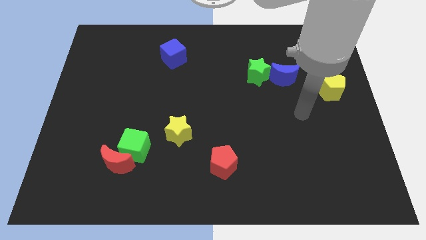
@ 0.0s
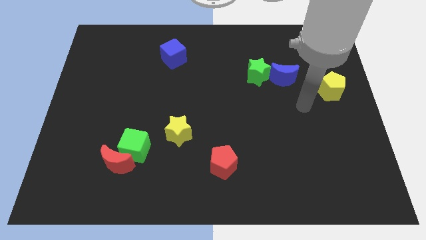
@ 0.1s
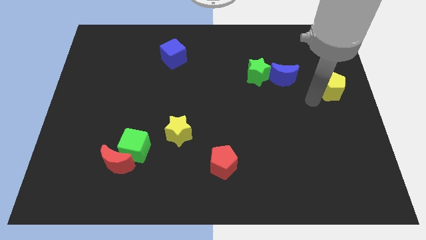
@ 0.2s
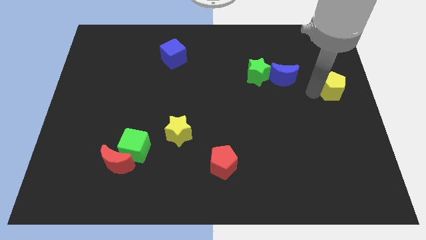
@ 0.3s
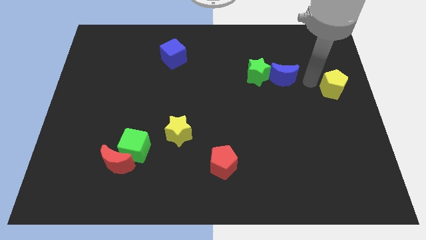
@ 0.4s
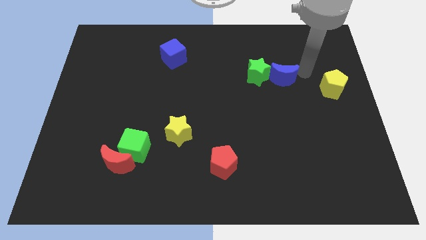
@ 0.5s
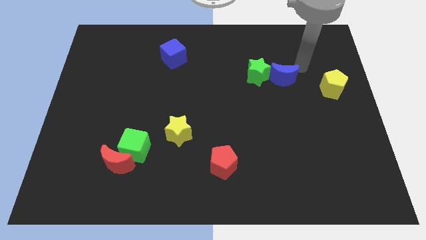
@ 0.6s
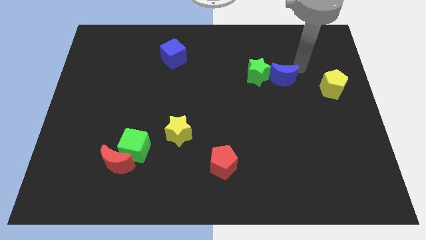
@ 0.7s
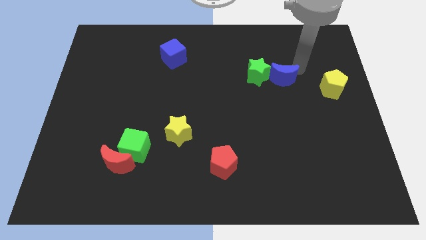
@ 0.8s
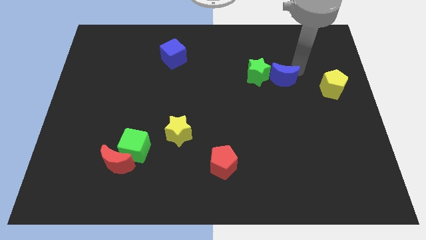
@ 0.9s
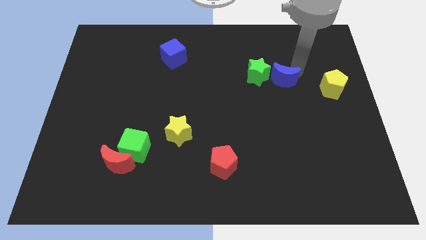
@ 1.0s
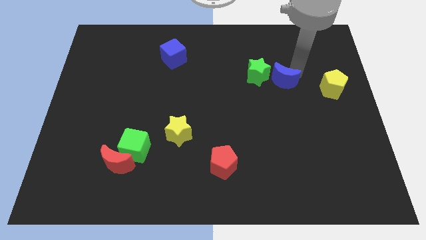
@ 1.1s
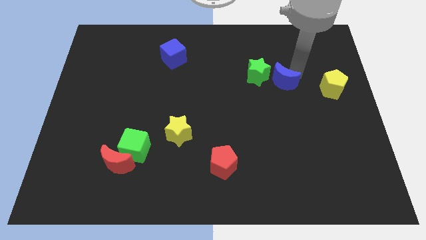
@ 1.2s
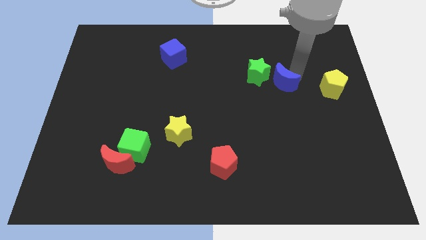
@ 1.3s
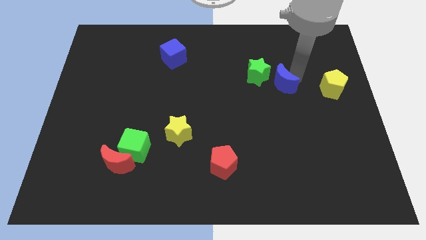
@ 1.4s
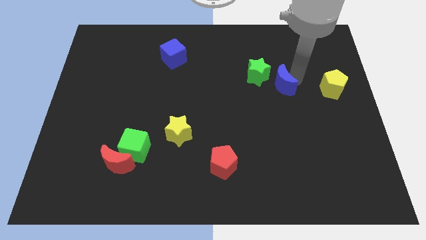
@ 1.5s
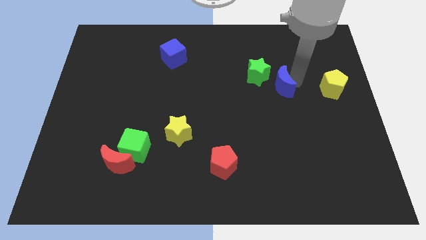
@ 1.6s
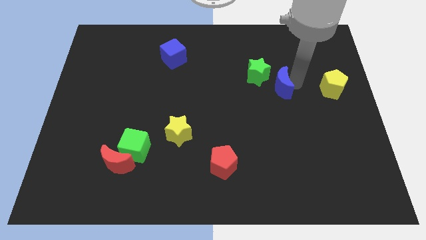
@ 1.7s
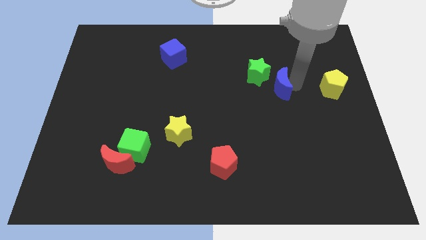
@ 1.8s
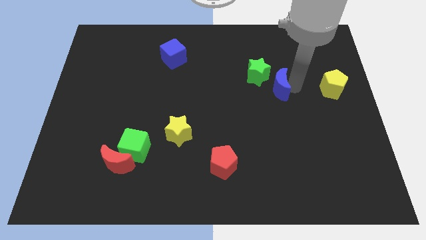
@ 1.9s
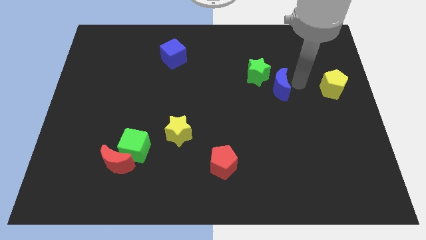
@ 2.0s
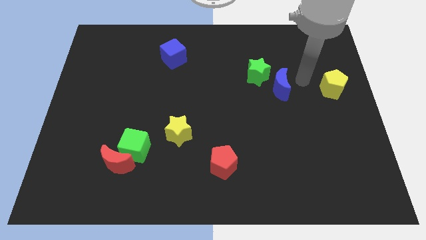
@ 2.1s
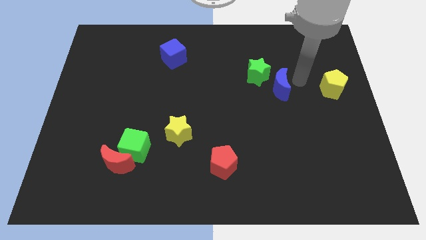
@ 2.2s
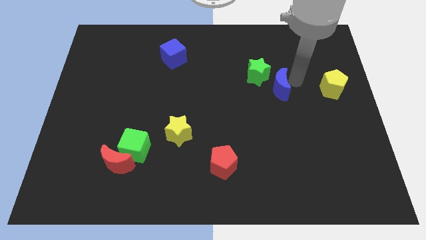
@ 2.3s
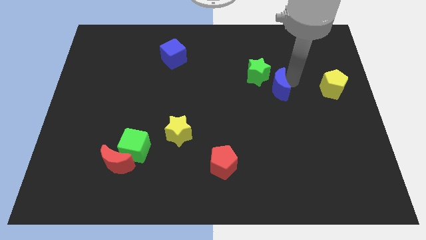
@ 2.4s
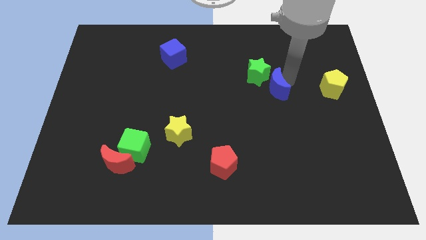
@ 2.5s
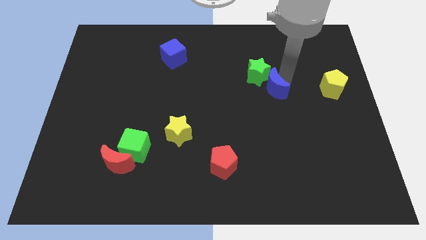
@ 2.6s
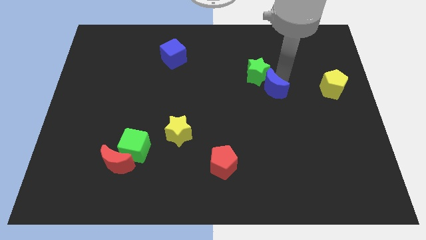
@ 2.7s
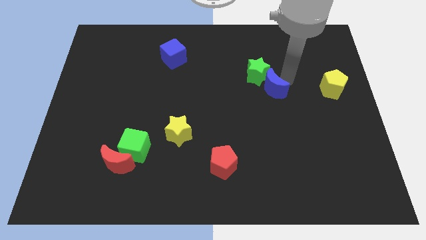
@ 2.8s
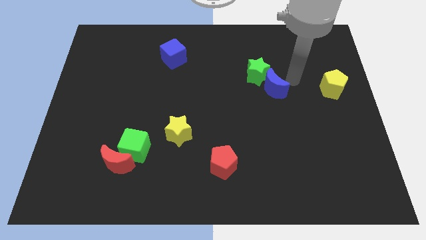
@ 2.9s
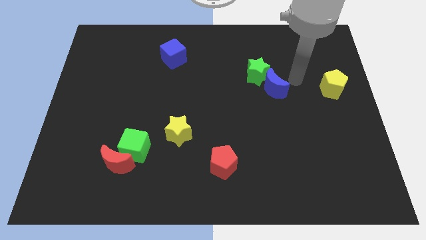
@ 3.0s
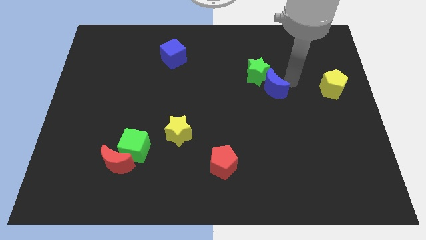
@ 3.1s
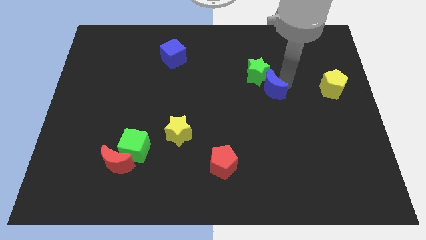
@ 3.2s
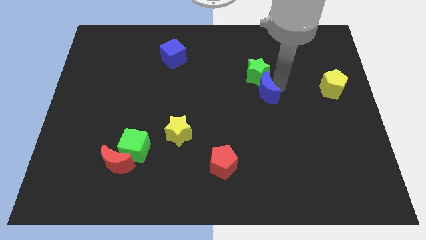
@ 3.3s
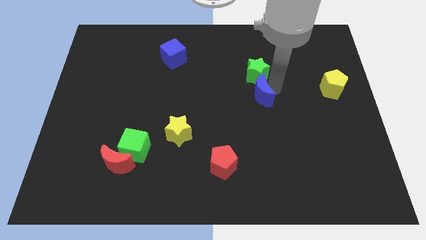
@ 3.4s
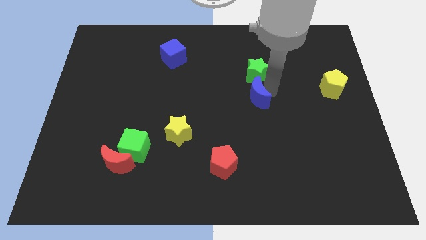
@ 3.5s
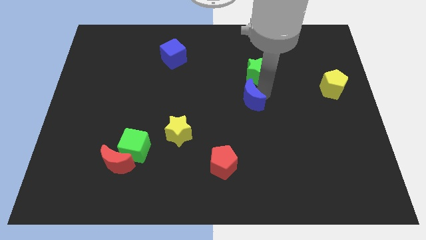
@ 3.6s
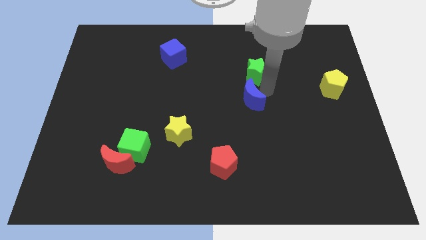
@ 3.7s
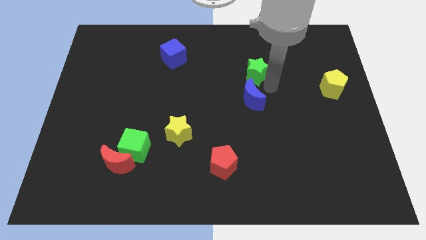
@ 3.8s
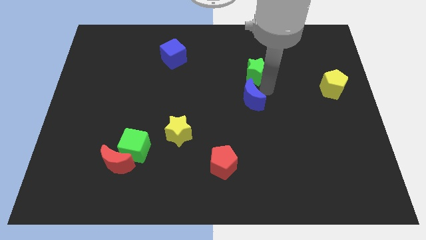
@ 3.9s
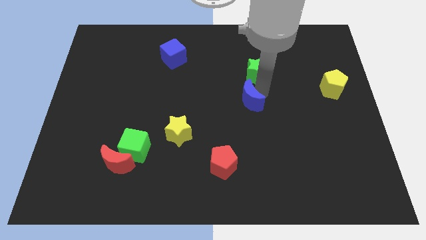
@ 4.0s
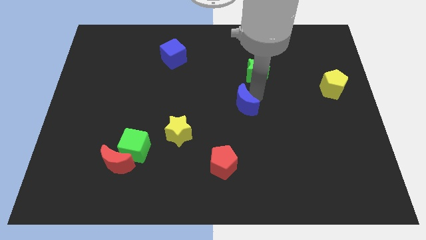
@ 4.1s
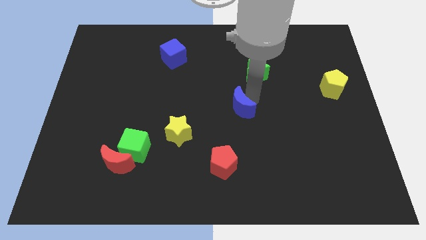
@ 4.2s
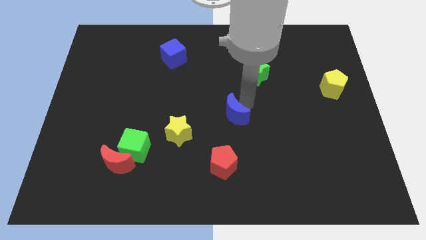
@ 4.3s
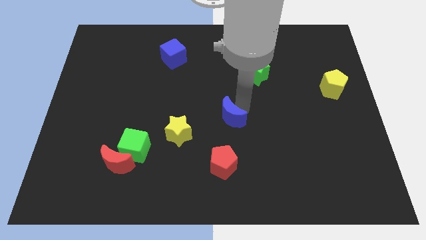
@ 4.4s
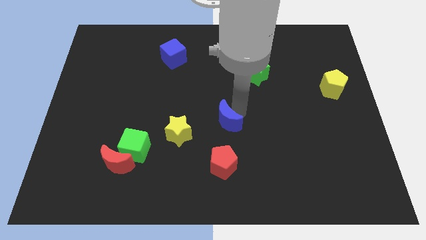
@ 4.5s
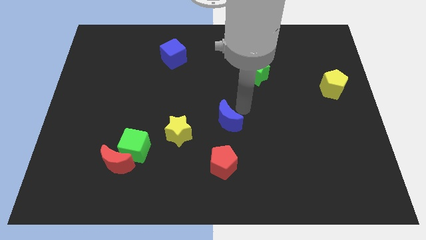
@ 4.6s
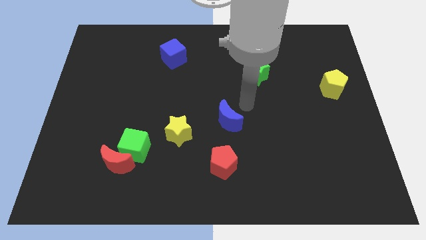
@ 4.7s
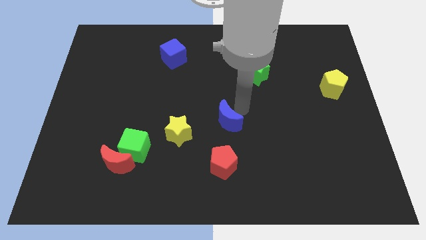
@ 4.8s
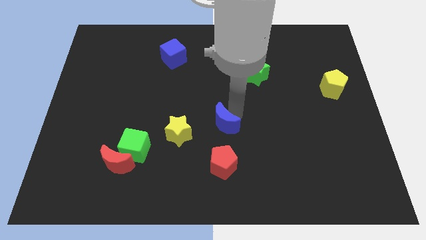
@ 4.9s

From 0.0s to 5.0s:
move the blue moon downwards and left diagonally

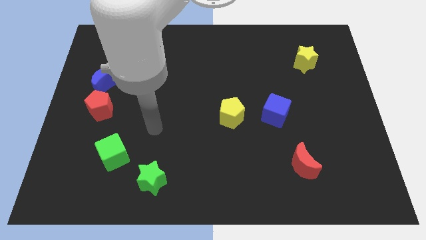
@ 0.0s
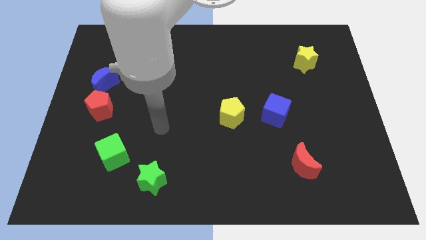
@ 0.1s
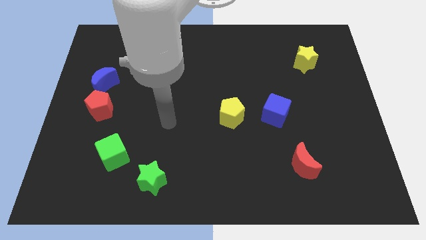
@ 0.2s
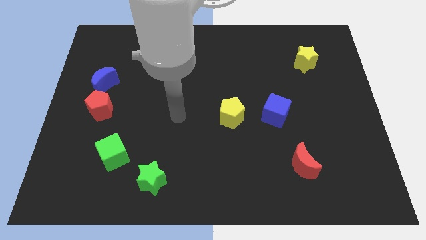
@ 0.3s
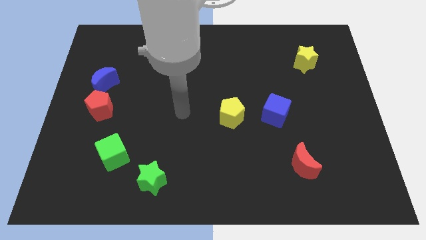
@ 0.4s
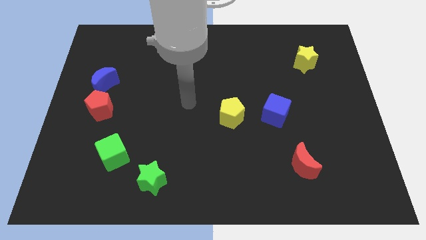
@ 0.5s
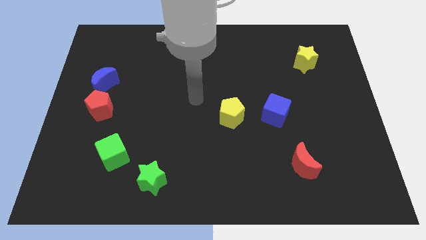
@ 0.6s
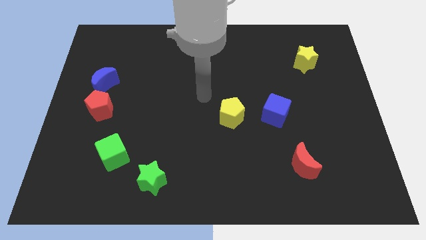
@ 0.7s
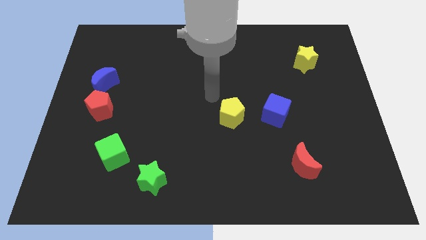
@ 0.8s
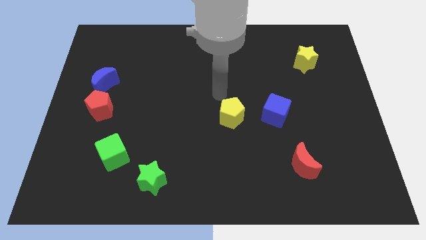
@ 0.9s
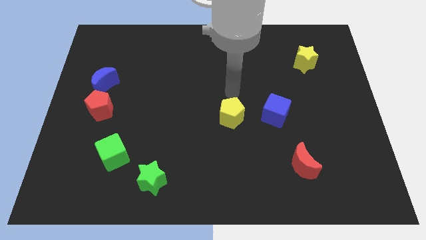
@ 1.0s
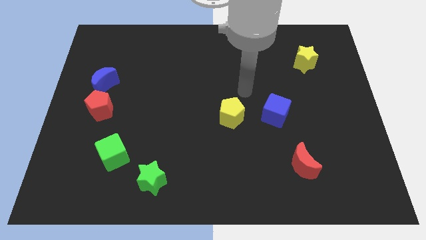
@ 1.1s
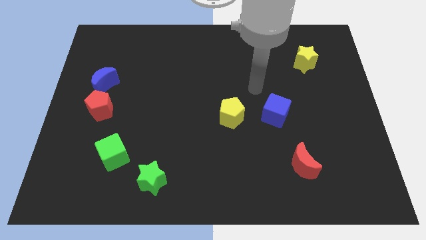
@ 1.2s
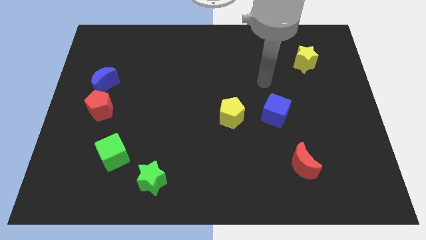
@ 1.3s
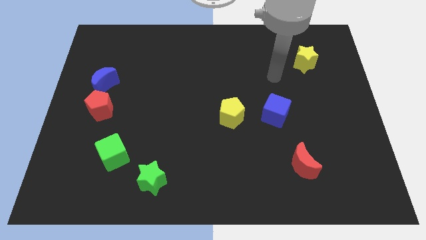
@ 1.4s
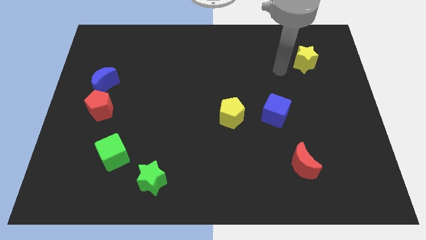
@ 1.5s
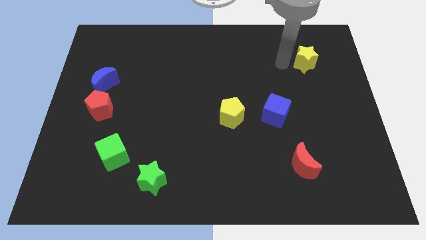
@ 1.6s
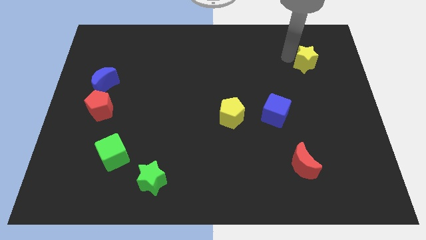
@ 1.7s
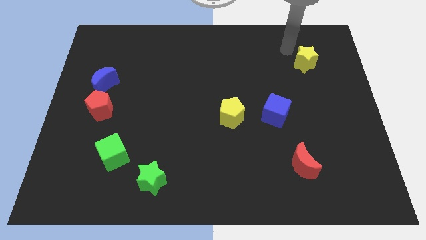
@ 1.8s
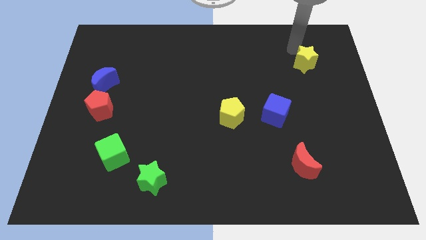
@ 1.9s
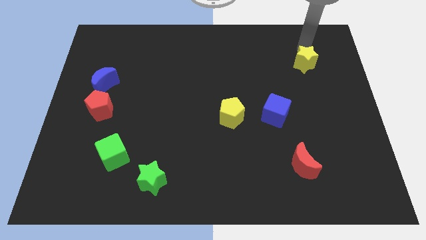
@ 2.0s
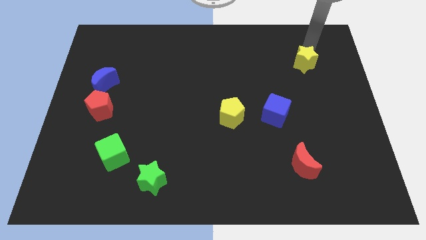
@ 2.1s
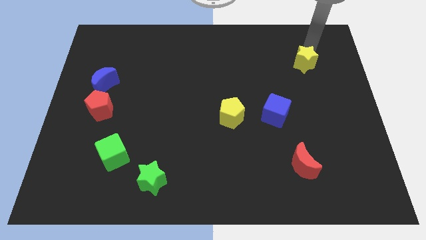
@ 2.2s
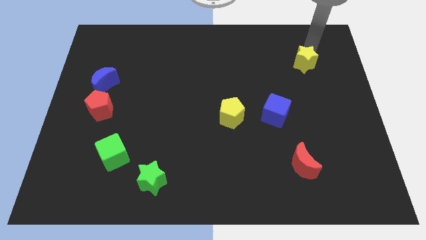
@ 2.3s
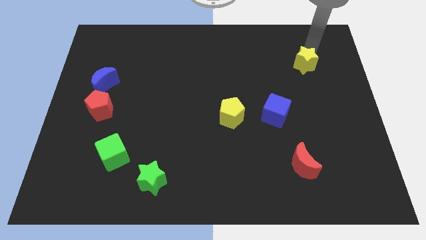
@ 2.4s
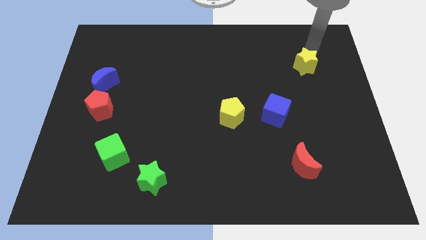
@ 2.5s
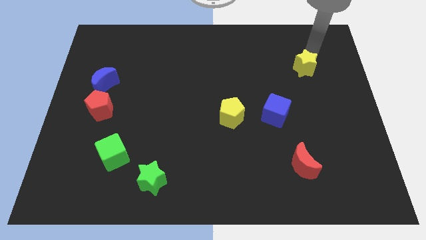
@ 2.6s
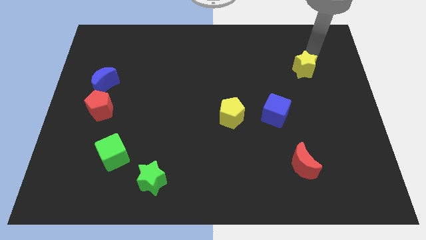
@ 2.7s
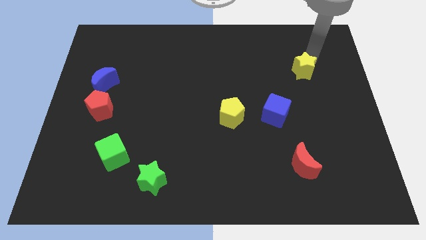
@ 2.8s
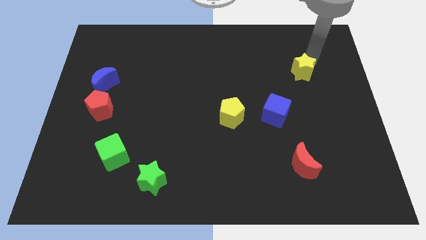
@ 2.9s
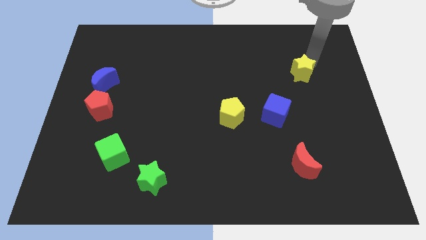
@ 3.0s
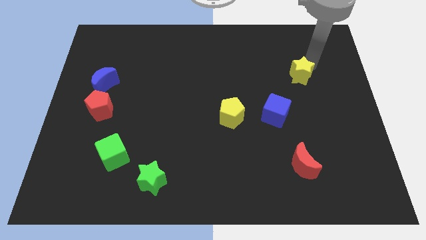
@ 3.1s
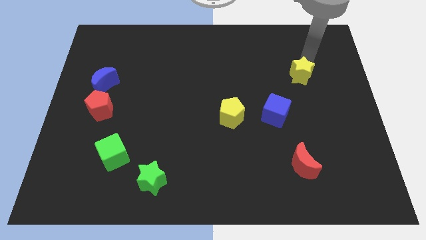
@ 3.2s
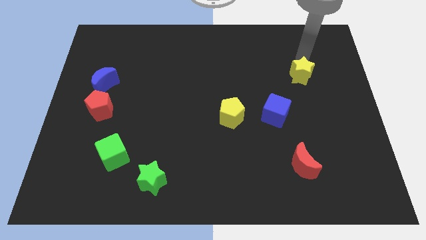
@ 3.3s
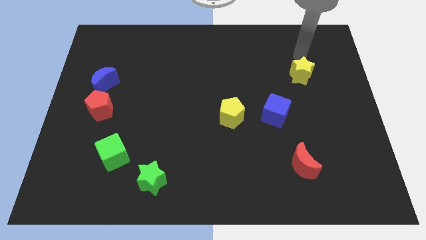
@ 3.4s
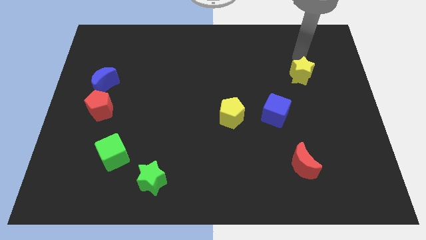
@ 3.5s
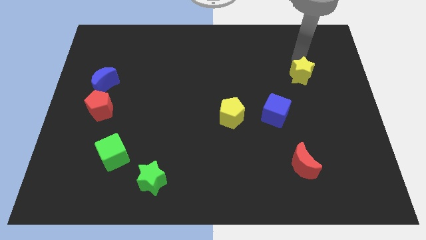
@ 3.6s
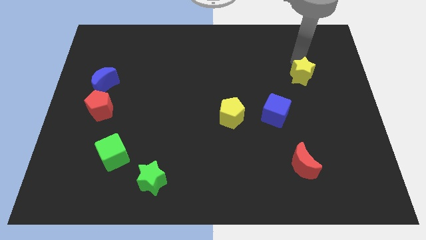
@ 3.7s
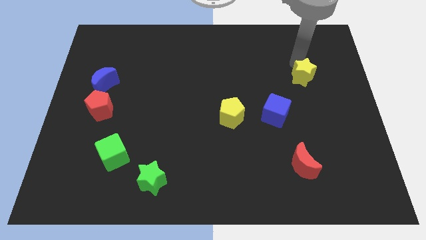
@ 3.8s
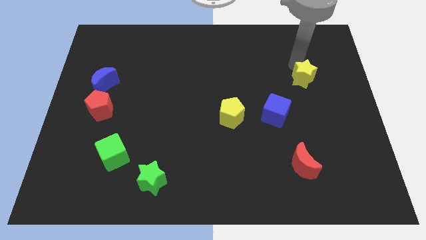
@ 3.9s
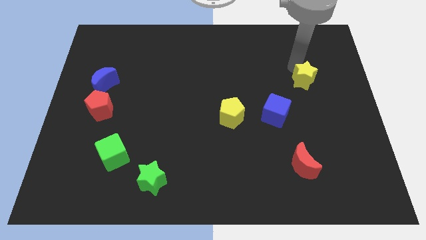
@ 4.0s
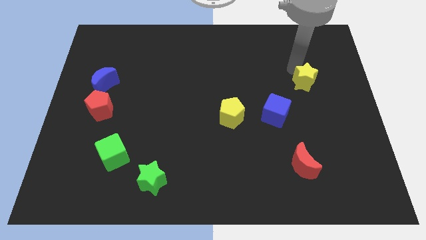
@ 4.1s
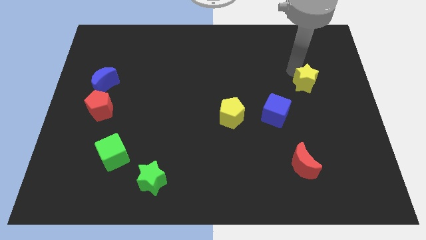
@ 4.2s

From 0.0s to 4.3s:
slightly slide the yellow star downwards
